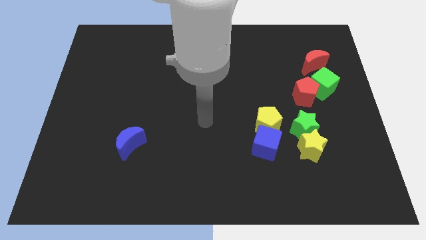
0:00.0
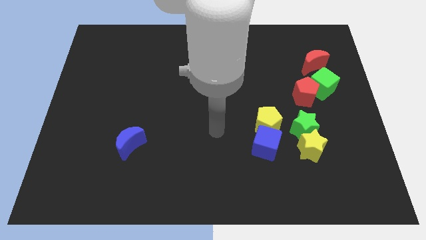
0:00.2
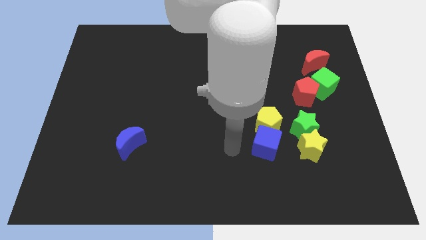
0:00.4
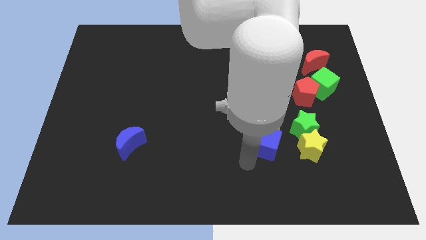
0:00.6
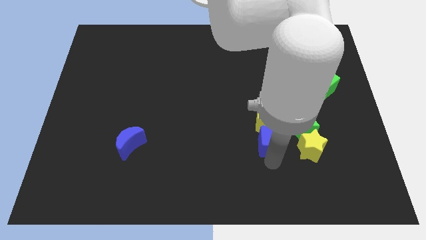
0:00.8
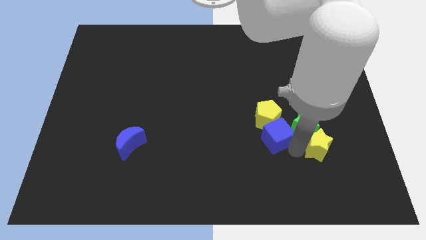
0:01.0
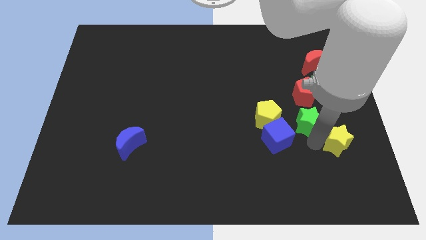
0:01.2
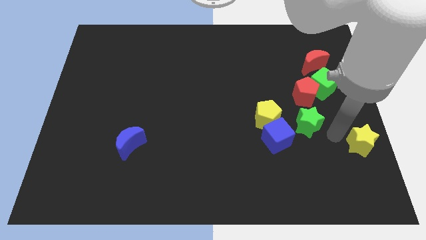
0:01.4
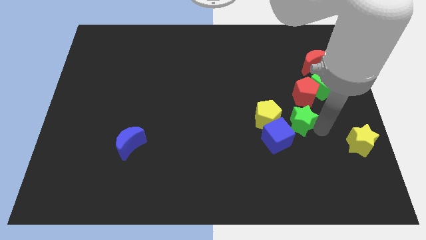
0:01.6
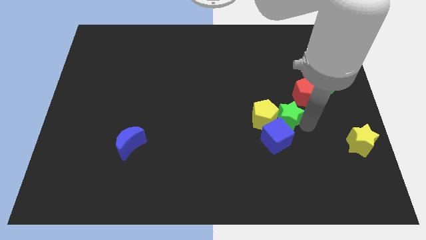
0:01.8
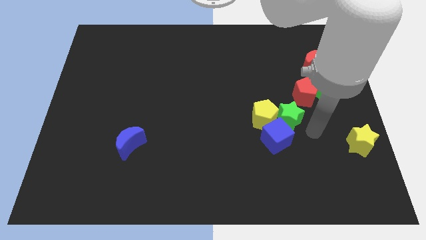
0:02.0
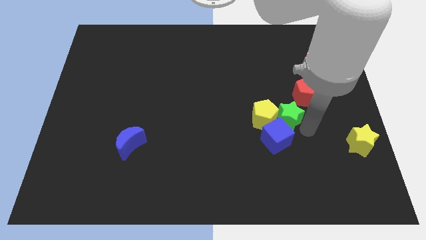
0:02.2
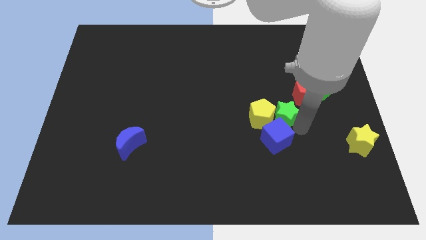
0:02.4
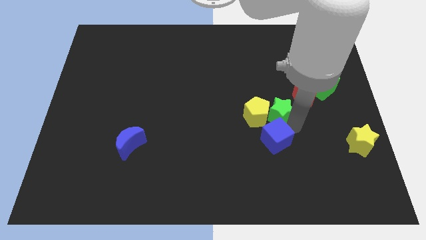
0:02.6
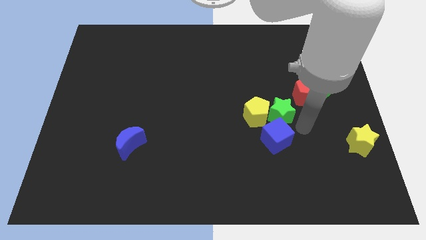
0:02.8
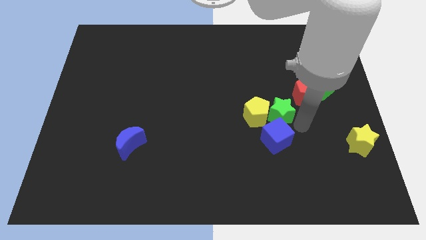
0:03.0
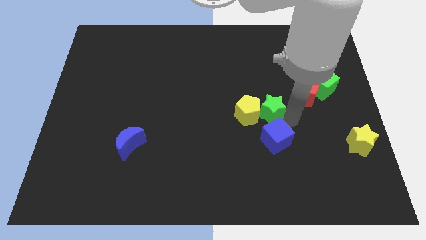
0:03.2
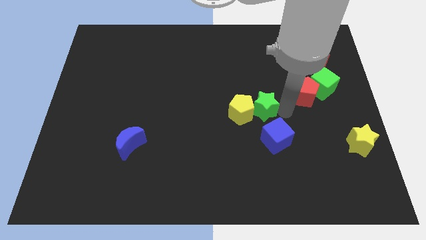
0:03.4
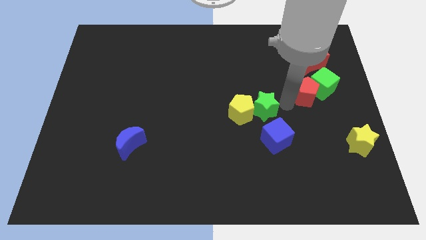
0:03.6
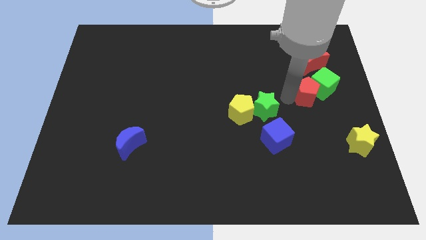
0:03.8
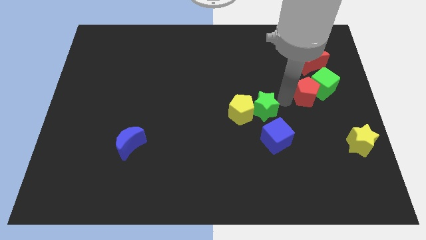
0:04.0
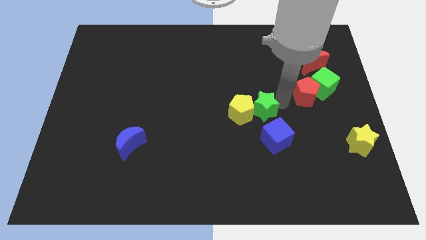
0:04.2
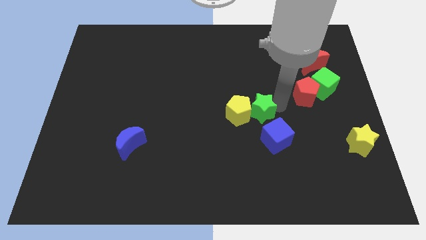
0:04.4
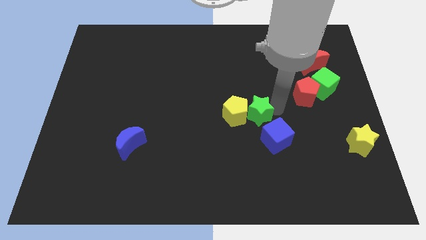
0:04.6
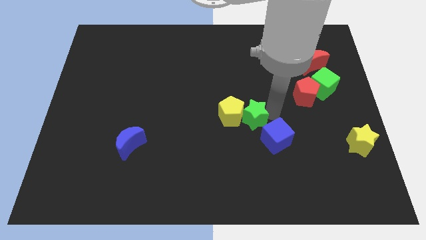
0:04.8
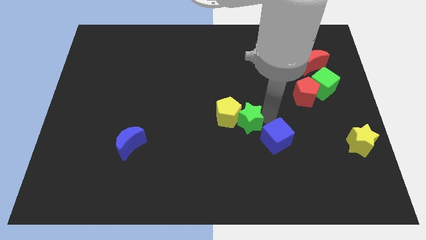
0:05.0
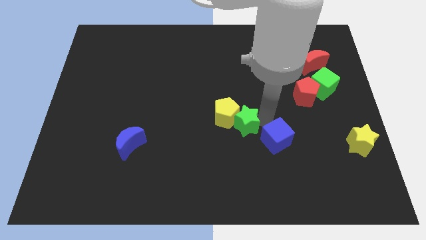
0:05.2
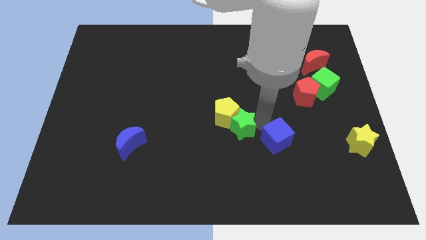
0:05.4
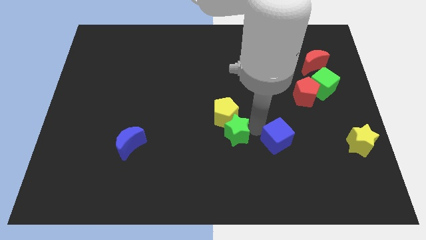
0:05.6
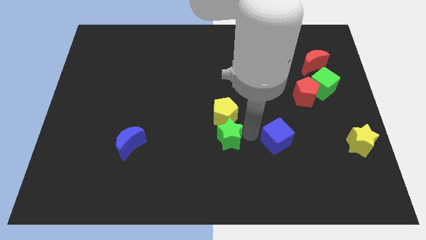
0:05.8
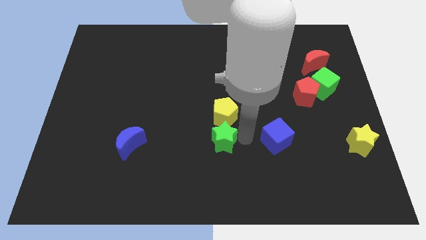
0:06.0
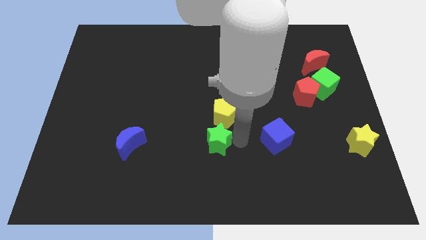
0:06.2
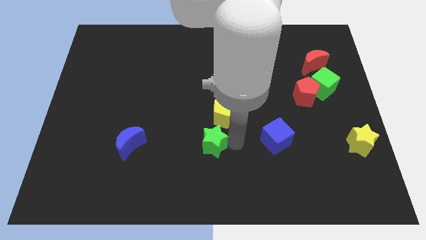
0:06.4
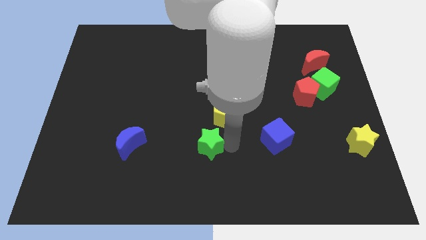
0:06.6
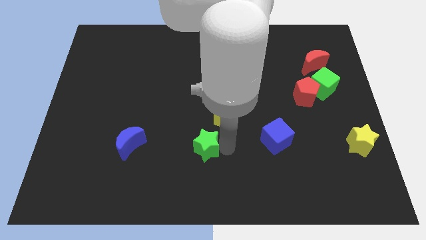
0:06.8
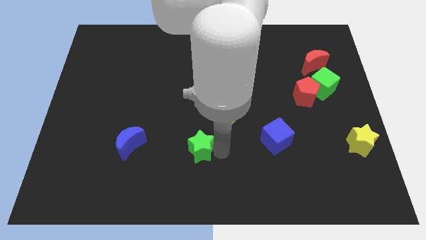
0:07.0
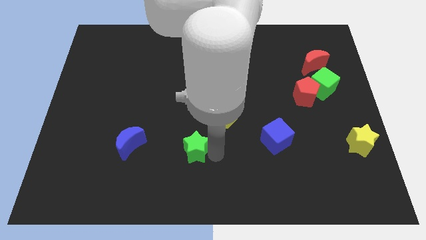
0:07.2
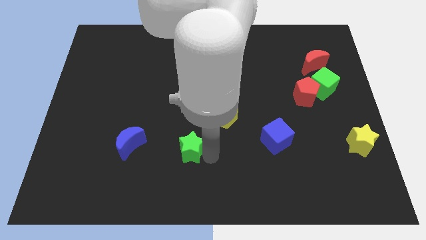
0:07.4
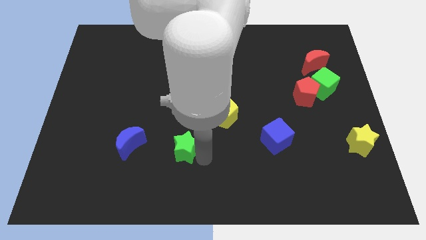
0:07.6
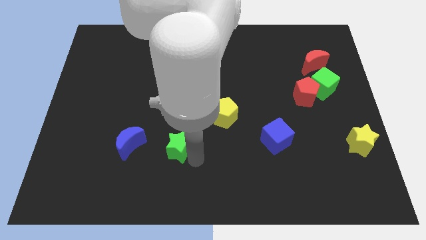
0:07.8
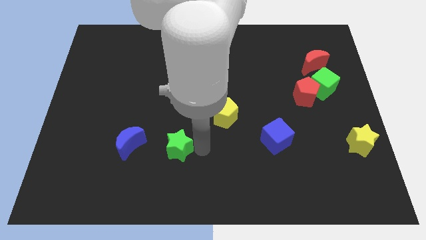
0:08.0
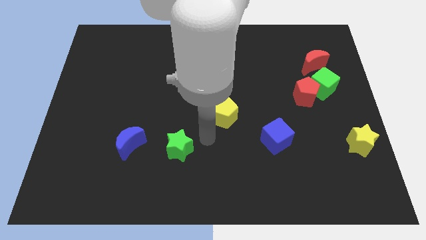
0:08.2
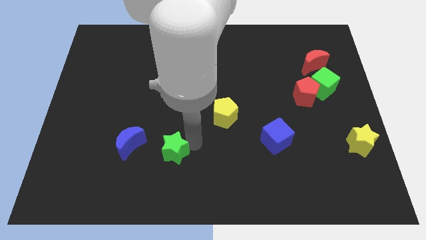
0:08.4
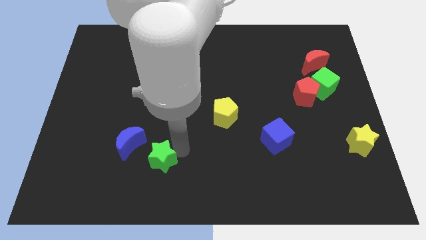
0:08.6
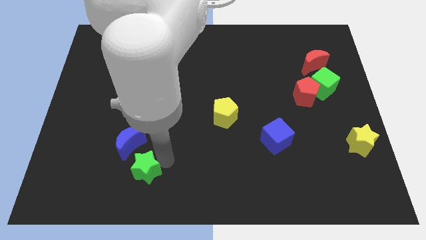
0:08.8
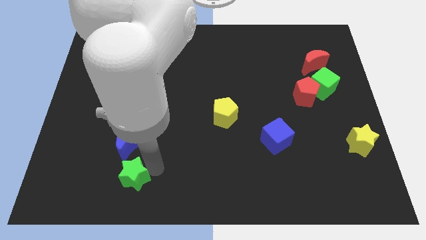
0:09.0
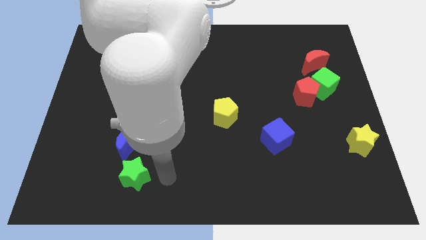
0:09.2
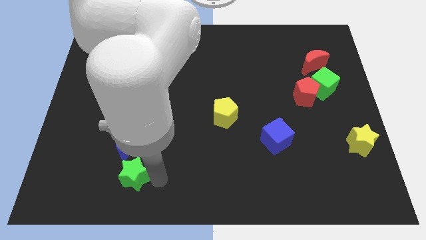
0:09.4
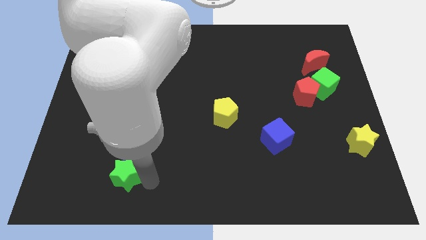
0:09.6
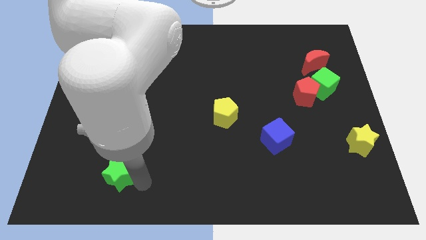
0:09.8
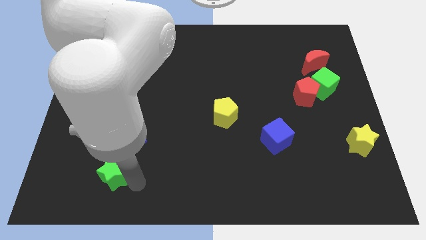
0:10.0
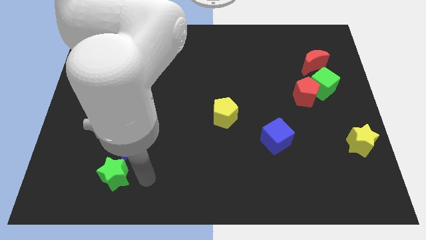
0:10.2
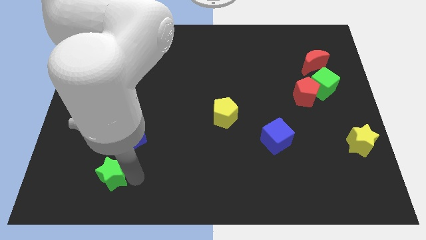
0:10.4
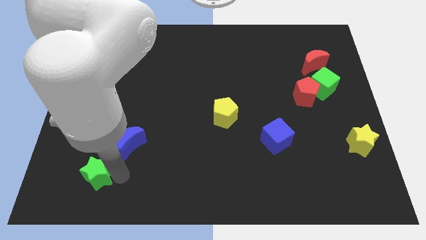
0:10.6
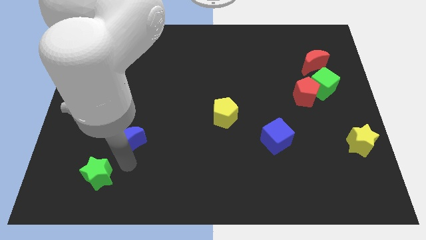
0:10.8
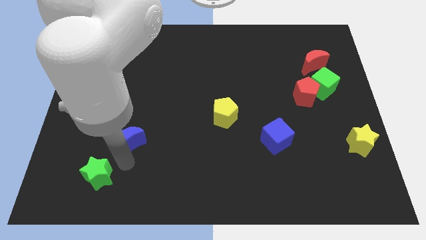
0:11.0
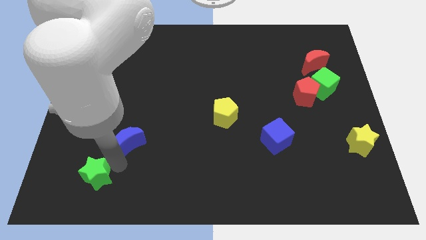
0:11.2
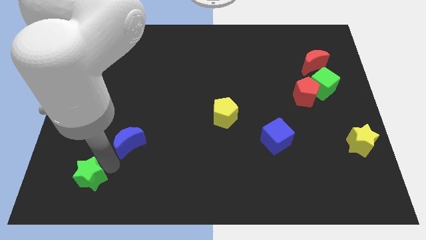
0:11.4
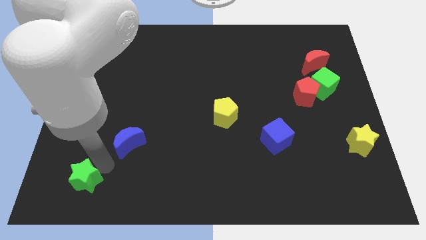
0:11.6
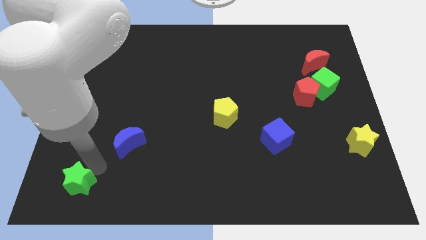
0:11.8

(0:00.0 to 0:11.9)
put the green star to the bottom left
